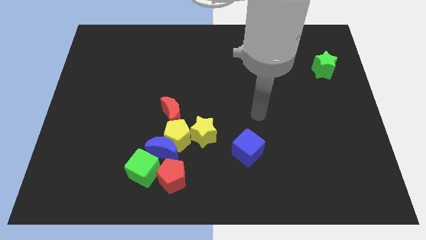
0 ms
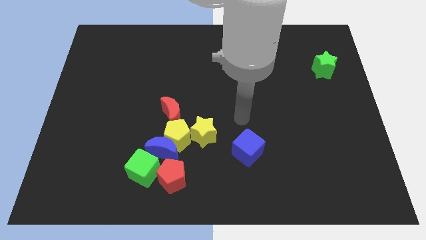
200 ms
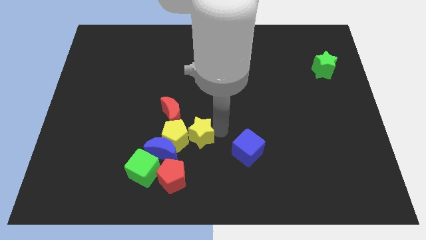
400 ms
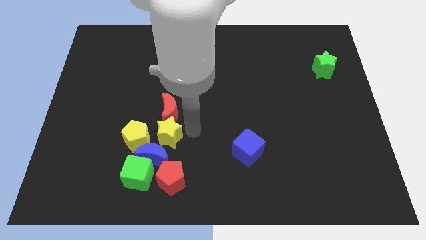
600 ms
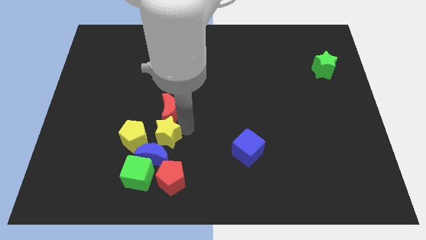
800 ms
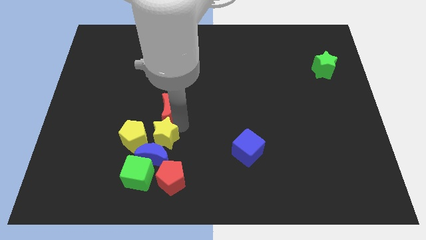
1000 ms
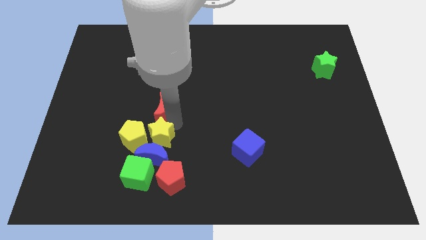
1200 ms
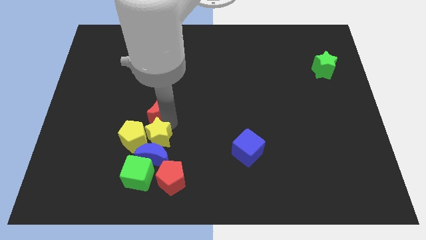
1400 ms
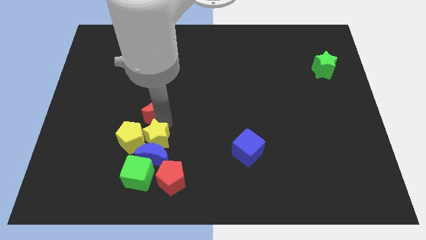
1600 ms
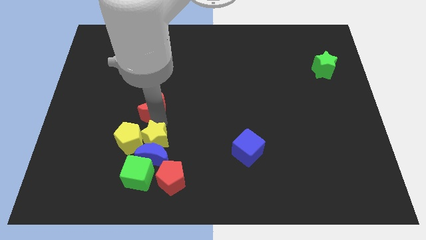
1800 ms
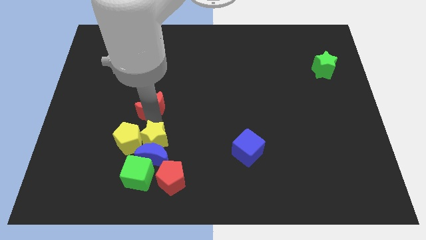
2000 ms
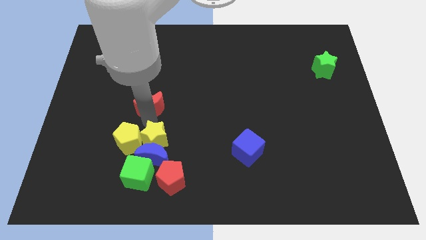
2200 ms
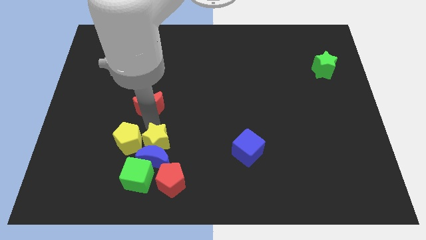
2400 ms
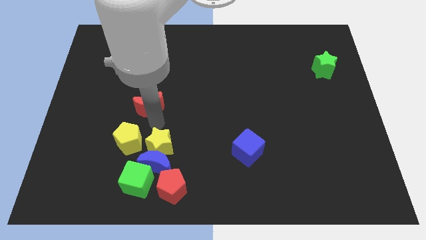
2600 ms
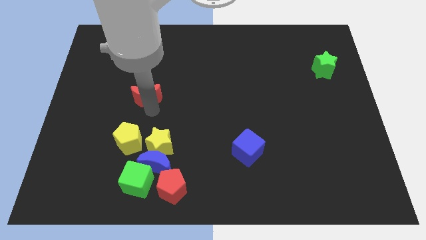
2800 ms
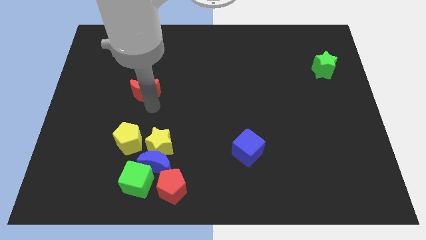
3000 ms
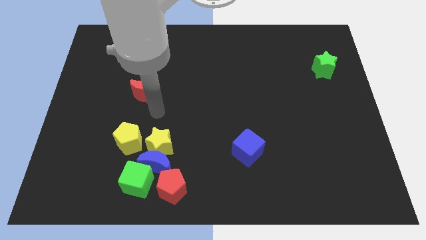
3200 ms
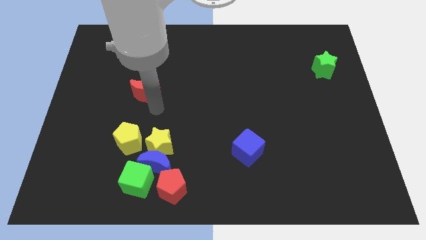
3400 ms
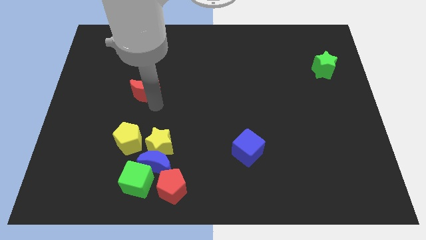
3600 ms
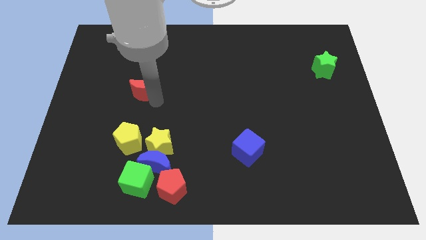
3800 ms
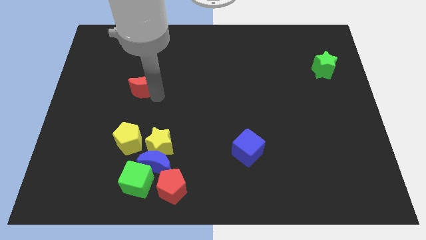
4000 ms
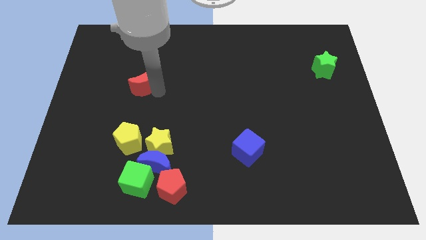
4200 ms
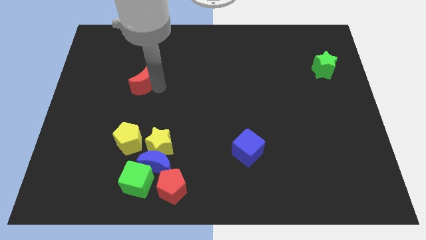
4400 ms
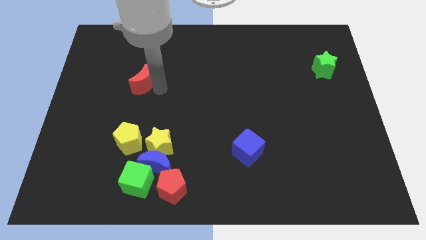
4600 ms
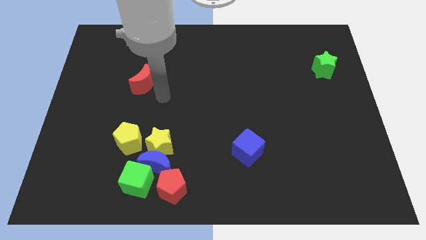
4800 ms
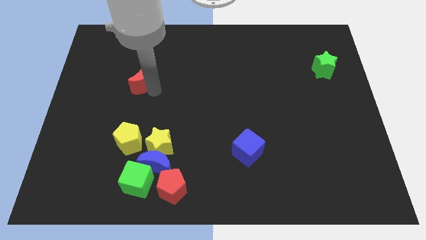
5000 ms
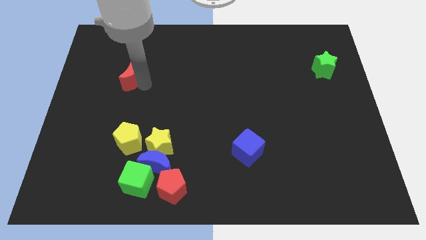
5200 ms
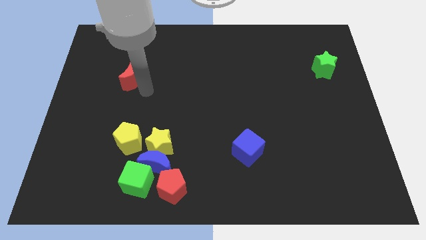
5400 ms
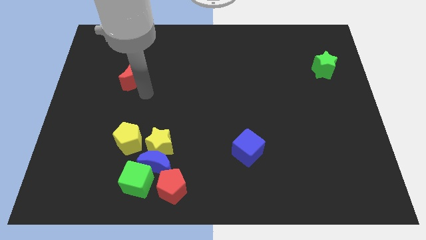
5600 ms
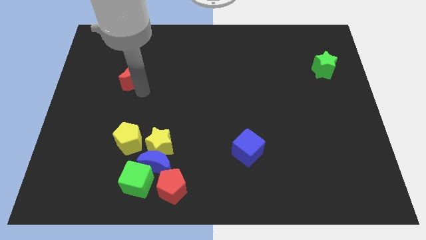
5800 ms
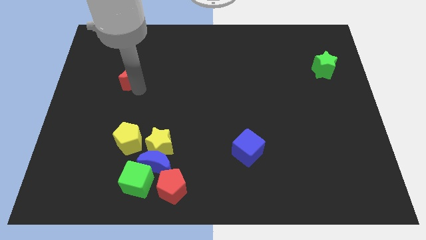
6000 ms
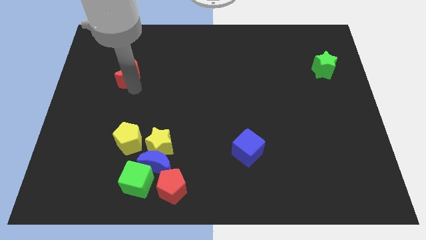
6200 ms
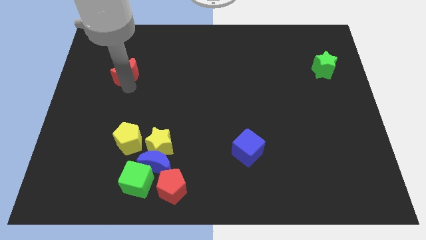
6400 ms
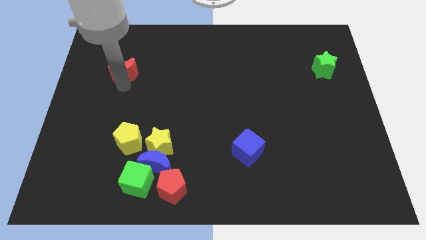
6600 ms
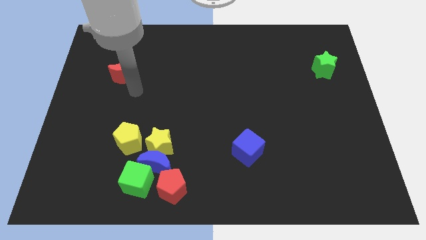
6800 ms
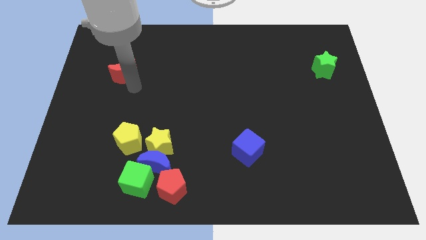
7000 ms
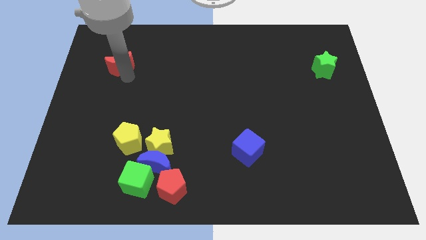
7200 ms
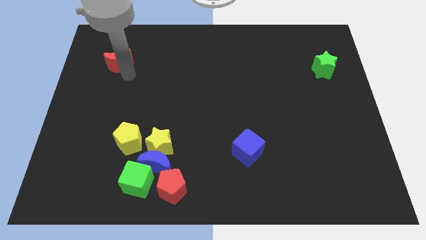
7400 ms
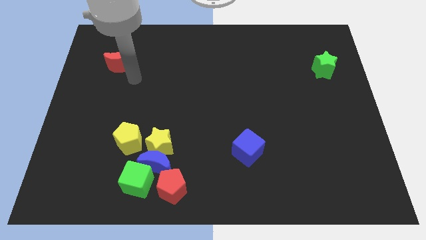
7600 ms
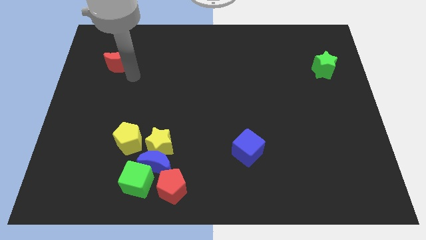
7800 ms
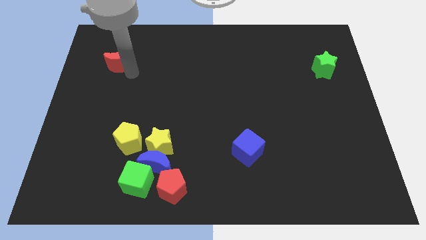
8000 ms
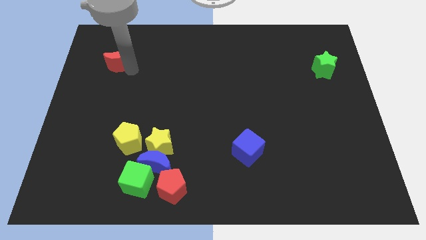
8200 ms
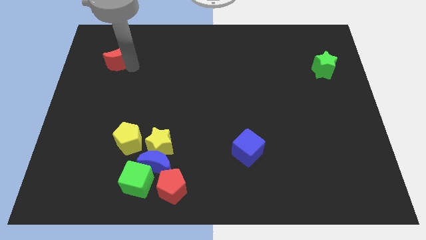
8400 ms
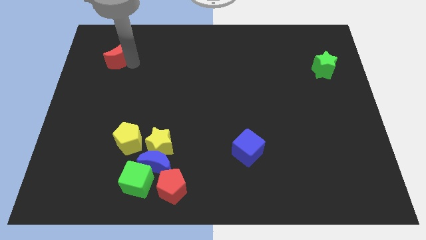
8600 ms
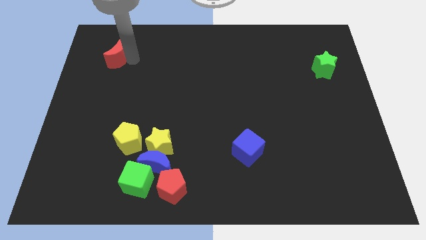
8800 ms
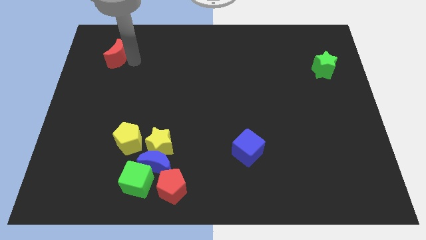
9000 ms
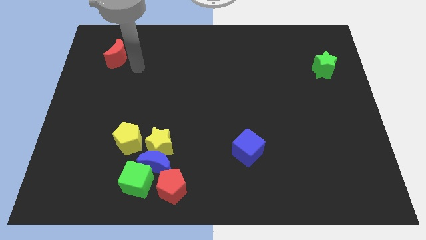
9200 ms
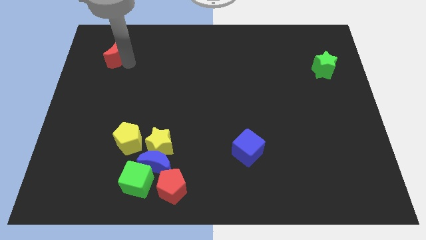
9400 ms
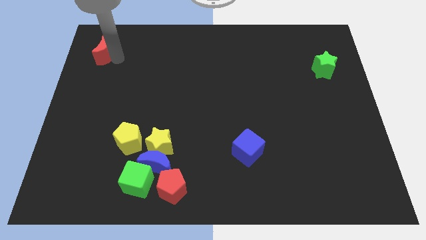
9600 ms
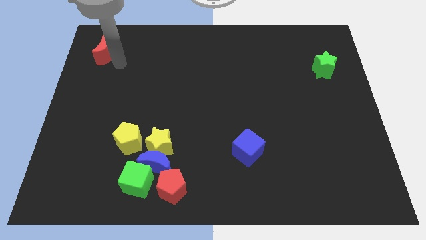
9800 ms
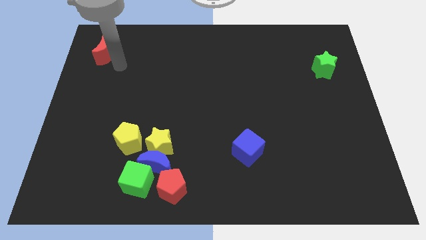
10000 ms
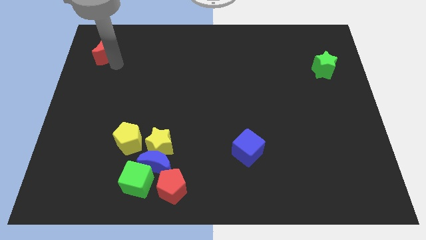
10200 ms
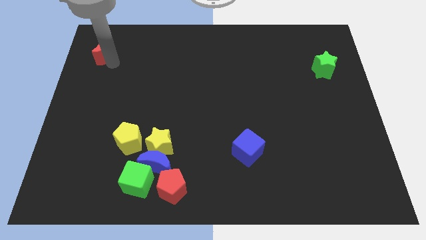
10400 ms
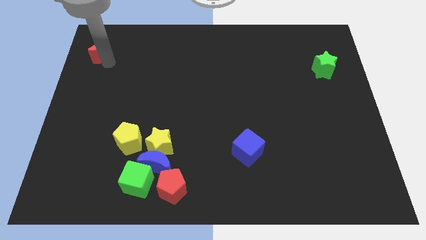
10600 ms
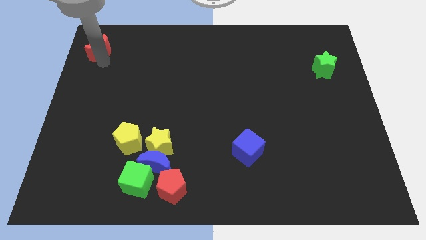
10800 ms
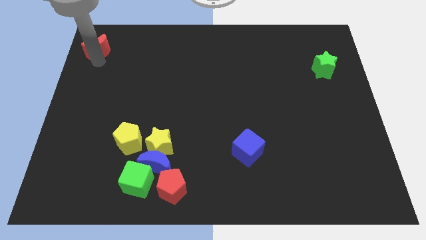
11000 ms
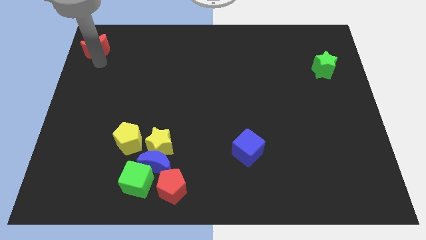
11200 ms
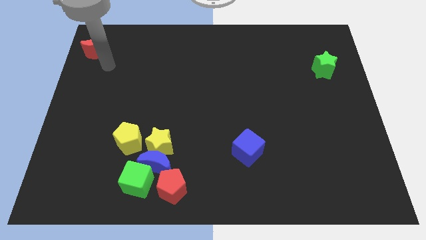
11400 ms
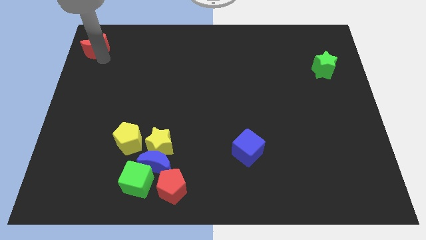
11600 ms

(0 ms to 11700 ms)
put the red moon to the top left of the board
